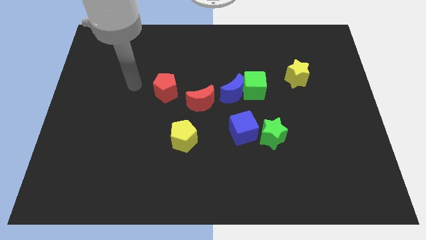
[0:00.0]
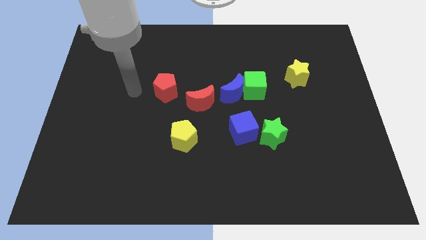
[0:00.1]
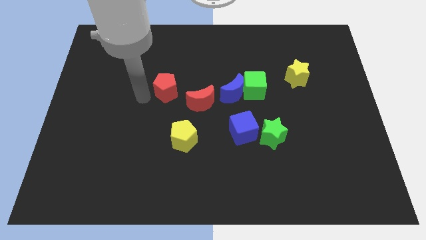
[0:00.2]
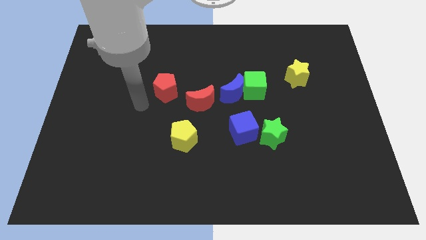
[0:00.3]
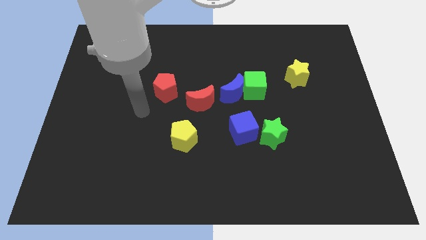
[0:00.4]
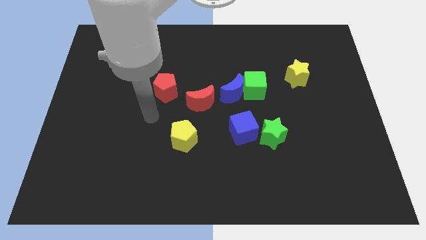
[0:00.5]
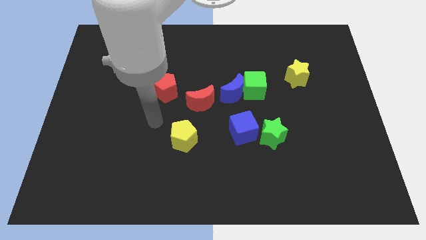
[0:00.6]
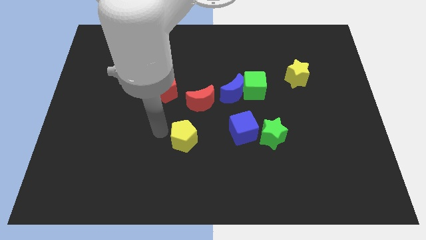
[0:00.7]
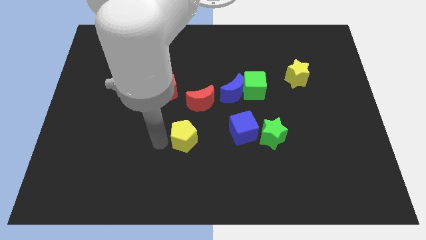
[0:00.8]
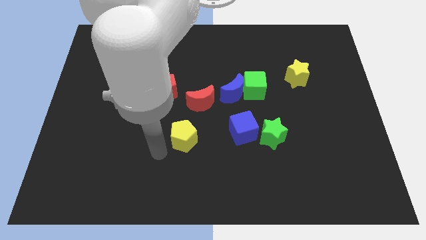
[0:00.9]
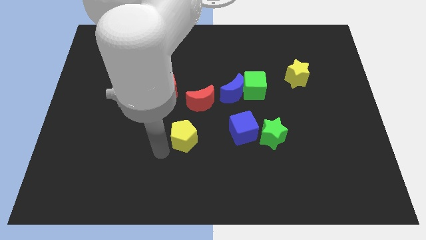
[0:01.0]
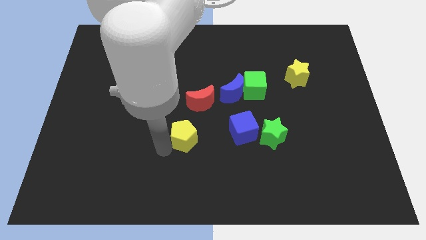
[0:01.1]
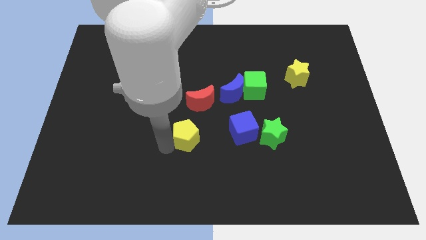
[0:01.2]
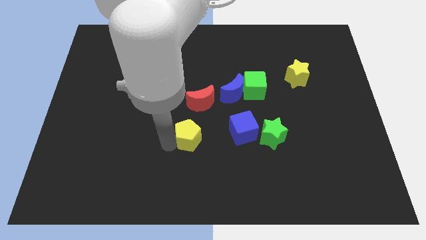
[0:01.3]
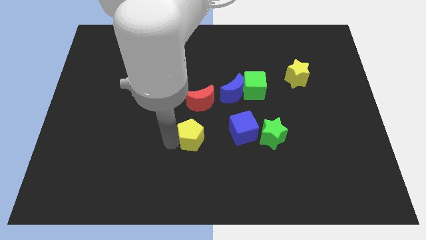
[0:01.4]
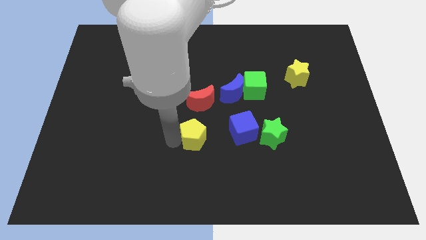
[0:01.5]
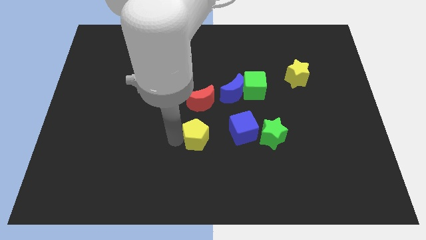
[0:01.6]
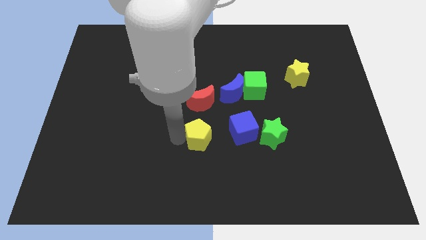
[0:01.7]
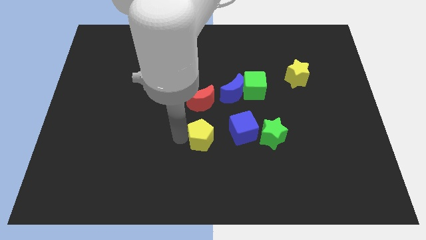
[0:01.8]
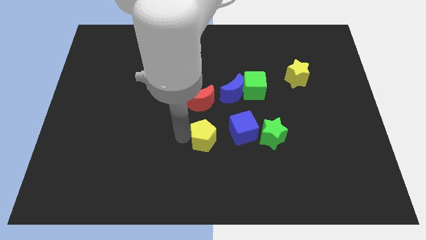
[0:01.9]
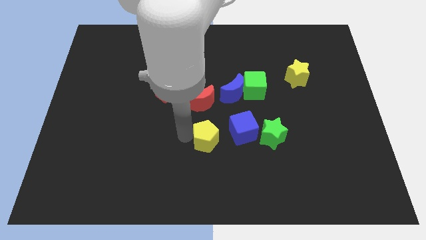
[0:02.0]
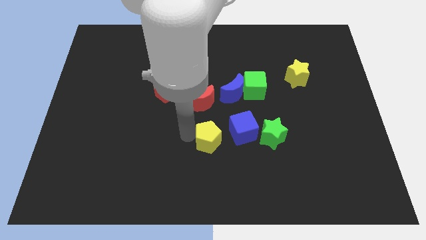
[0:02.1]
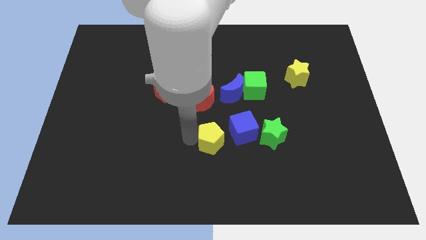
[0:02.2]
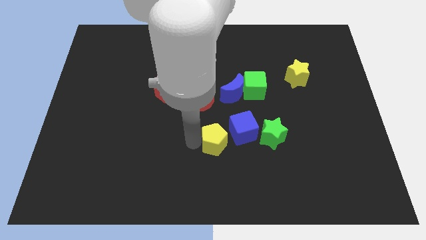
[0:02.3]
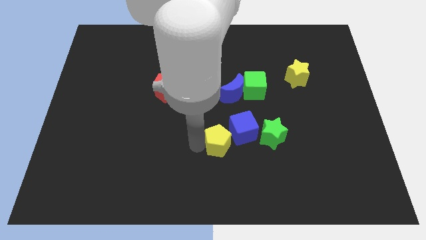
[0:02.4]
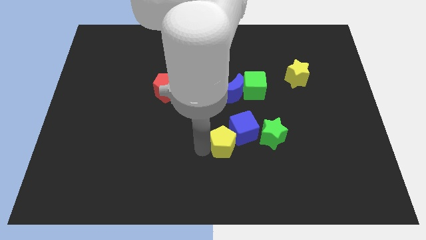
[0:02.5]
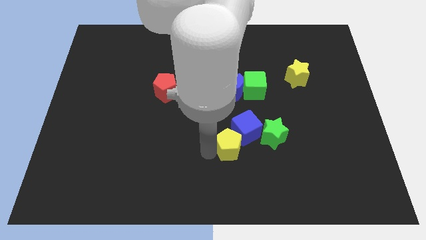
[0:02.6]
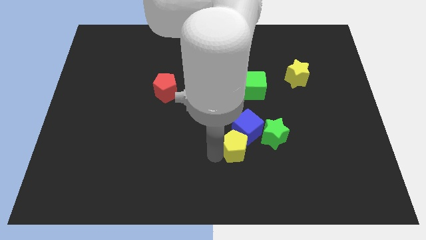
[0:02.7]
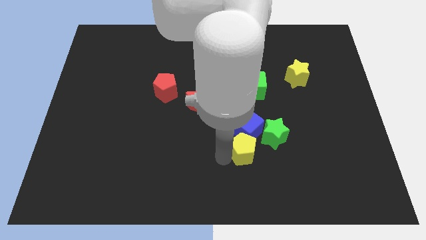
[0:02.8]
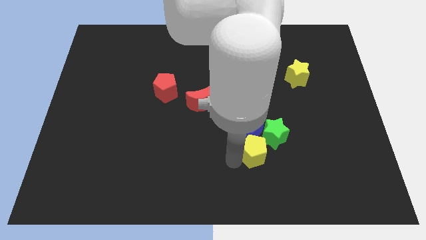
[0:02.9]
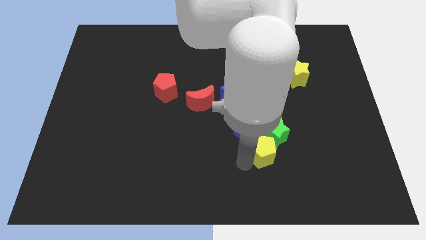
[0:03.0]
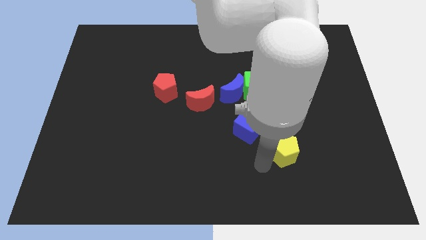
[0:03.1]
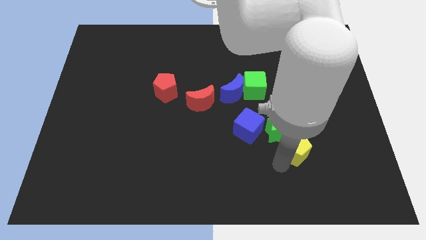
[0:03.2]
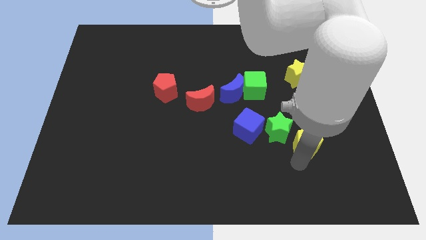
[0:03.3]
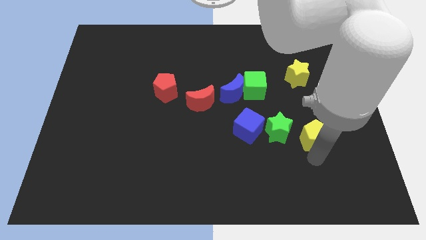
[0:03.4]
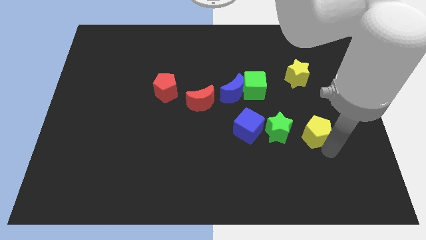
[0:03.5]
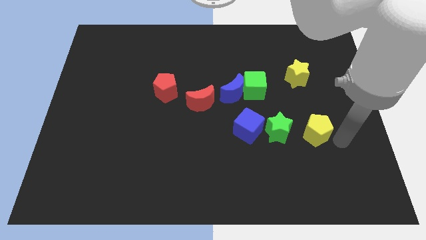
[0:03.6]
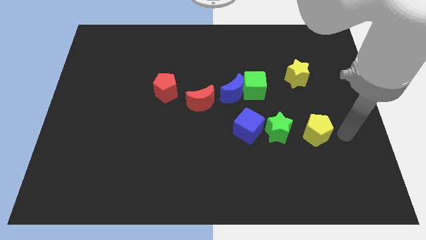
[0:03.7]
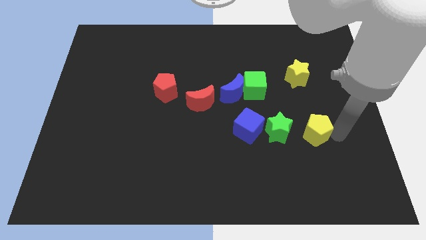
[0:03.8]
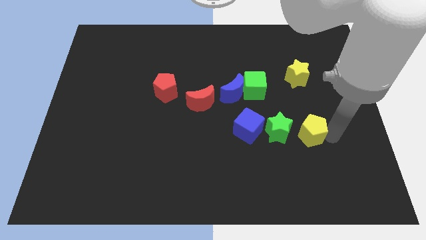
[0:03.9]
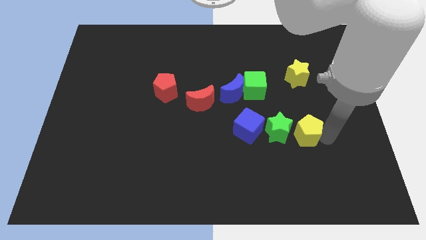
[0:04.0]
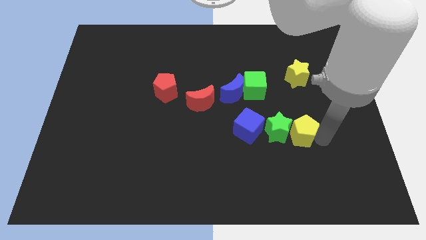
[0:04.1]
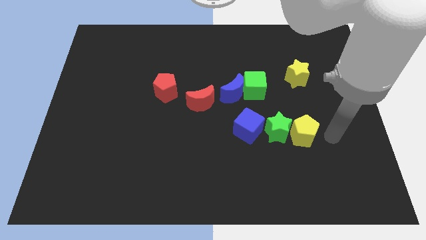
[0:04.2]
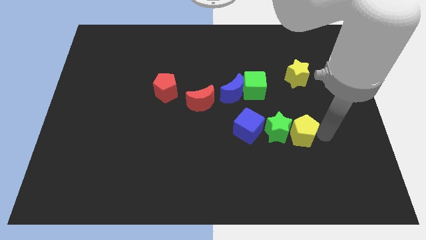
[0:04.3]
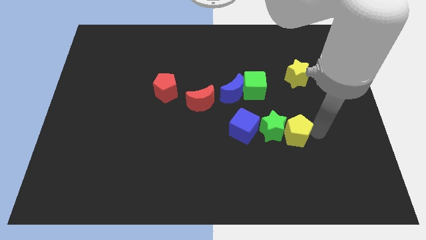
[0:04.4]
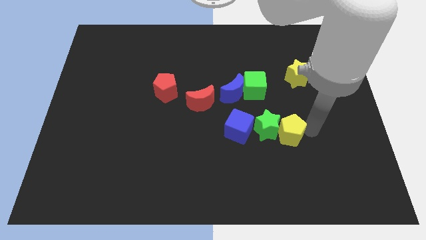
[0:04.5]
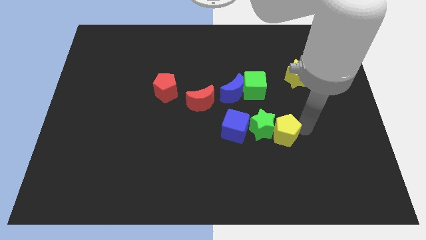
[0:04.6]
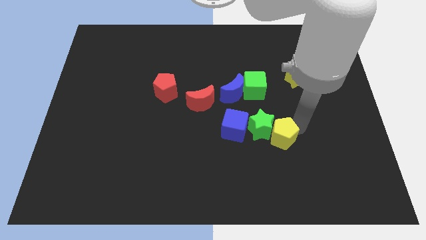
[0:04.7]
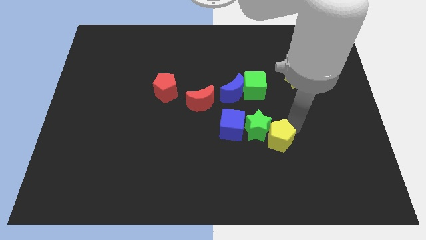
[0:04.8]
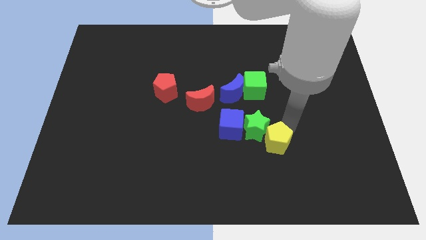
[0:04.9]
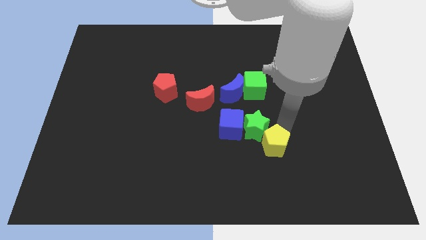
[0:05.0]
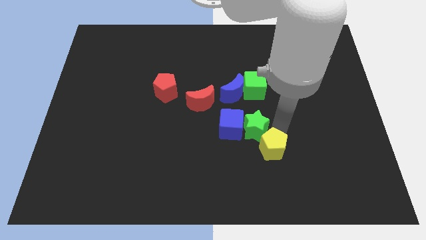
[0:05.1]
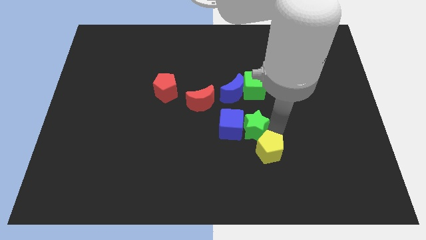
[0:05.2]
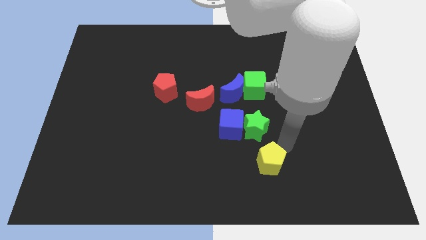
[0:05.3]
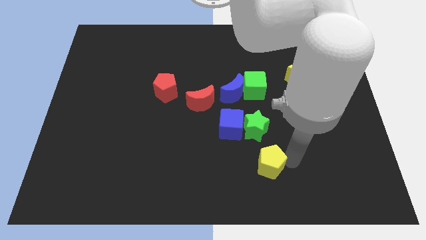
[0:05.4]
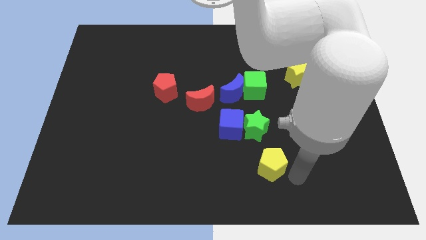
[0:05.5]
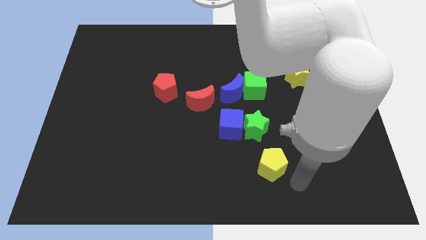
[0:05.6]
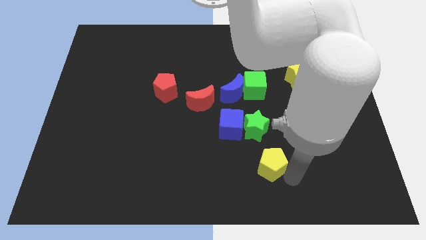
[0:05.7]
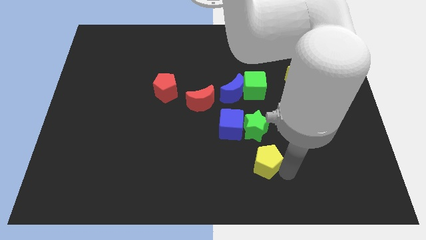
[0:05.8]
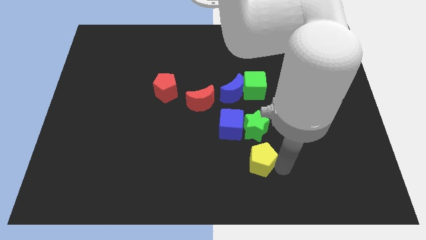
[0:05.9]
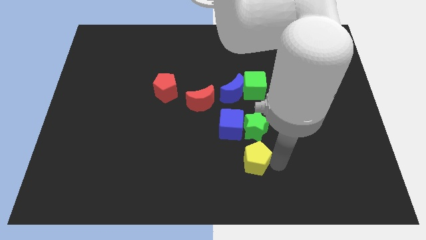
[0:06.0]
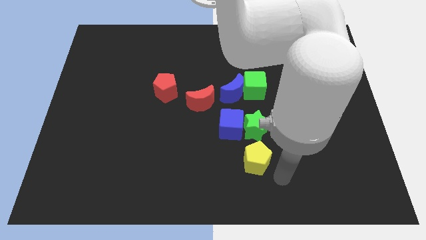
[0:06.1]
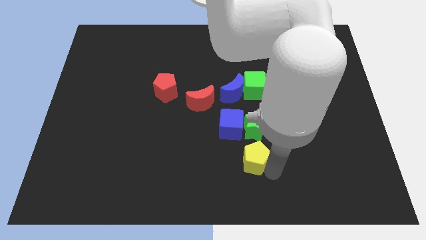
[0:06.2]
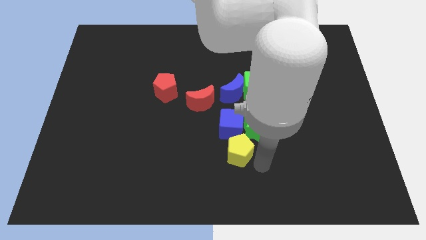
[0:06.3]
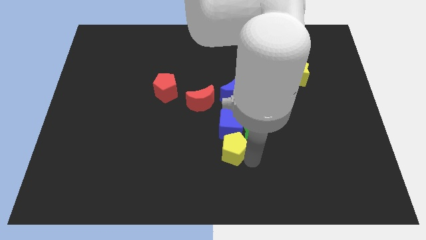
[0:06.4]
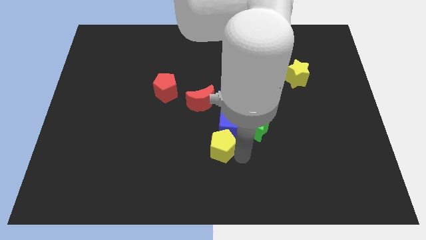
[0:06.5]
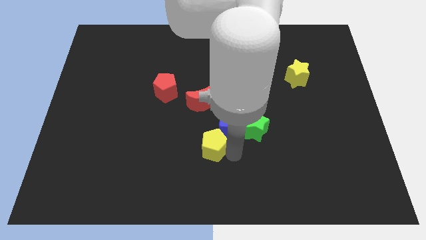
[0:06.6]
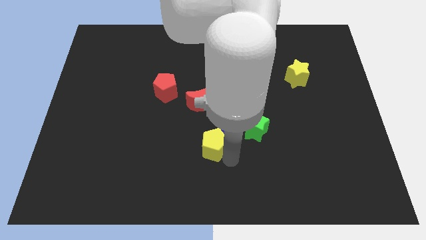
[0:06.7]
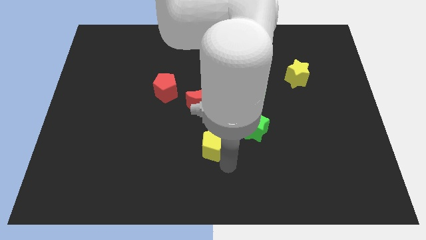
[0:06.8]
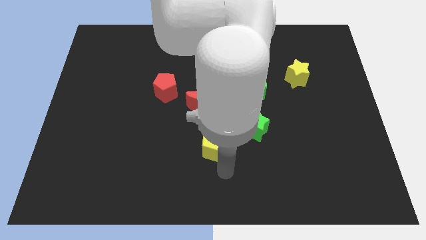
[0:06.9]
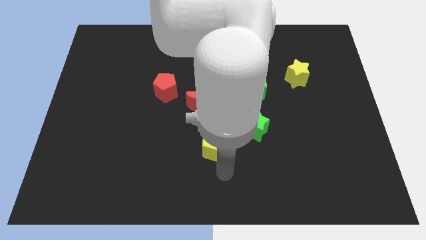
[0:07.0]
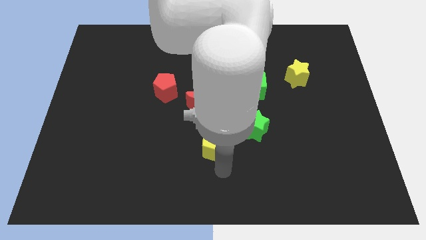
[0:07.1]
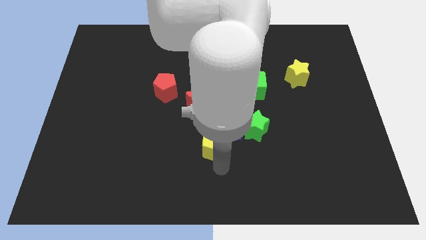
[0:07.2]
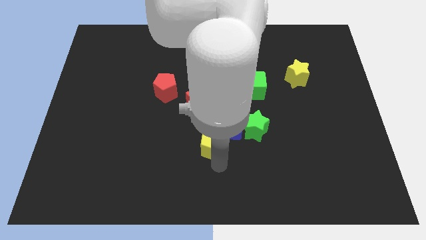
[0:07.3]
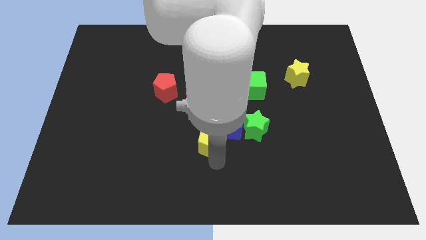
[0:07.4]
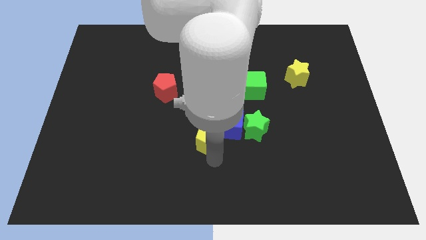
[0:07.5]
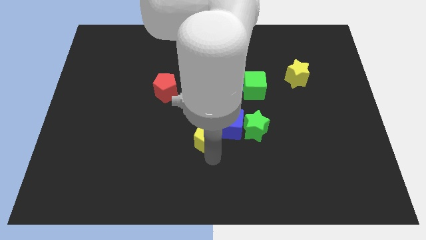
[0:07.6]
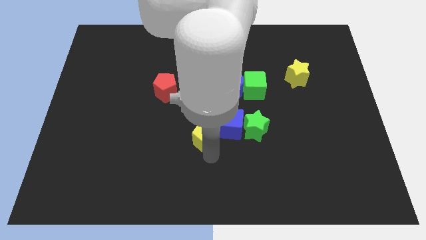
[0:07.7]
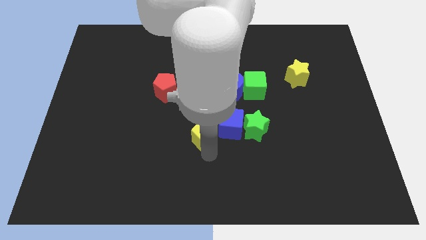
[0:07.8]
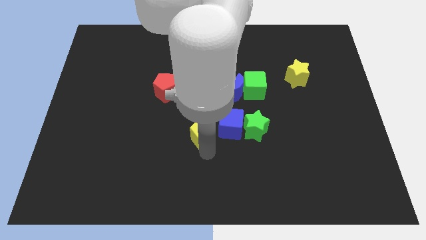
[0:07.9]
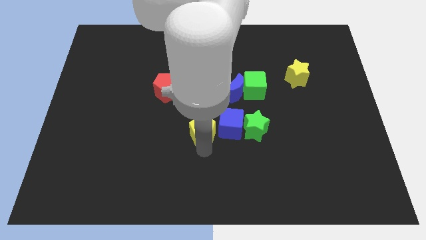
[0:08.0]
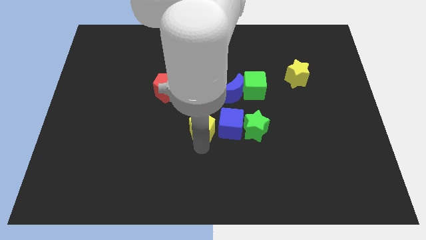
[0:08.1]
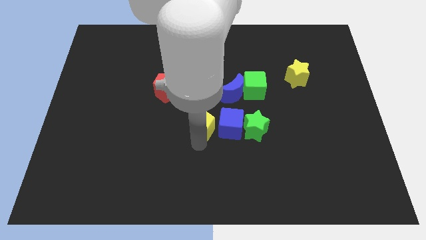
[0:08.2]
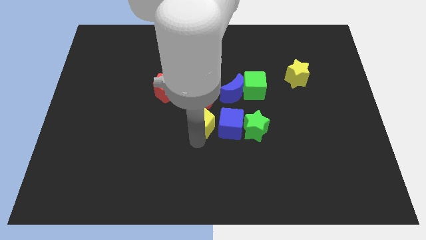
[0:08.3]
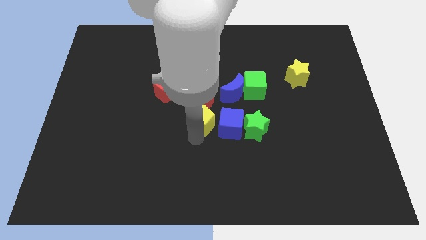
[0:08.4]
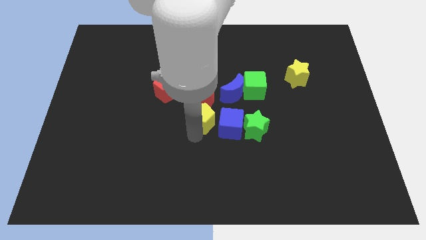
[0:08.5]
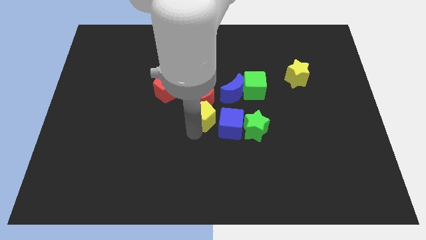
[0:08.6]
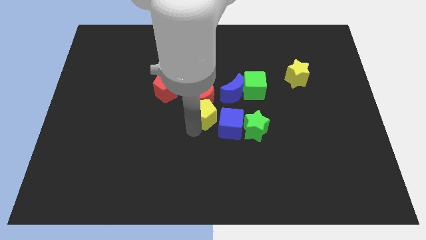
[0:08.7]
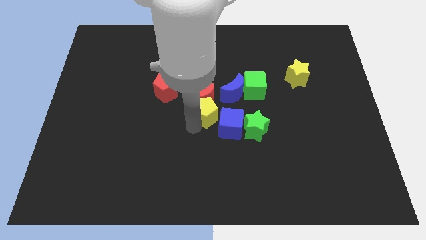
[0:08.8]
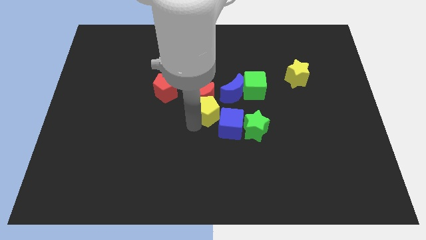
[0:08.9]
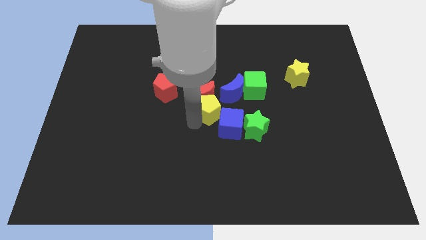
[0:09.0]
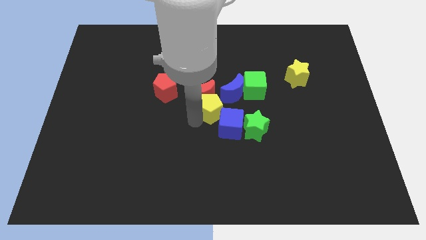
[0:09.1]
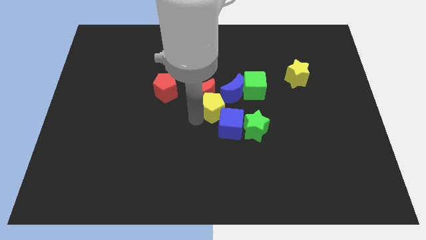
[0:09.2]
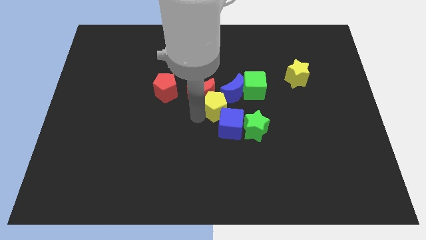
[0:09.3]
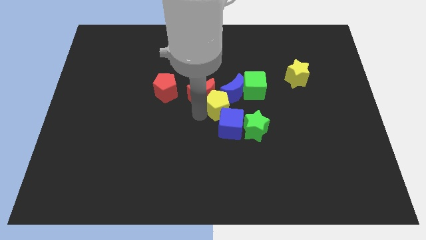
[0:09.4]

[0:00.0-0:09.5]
push the yellow pentagon close to the blue moon
